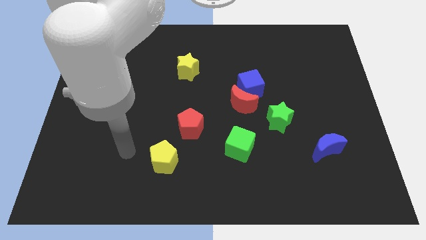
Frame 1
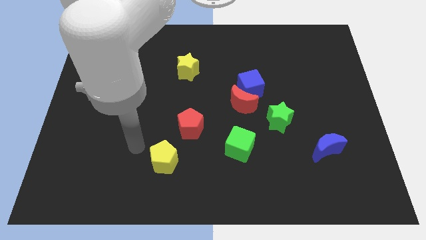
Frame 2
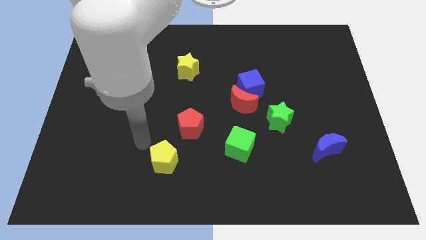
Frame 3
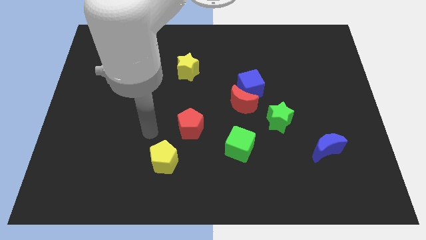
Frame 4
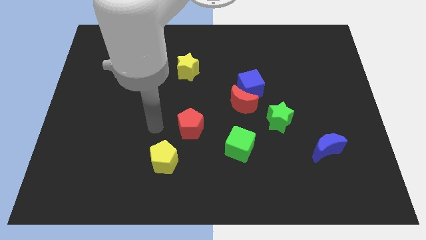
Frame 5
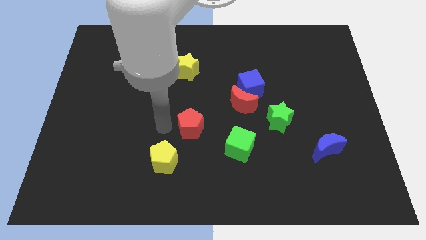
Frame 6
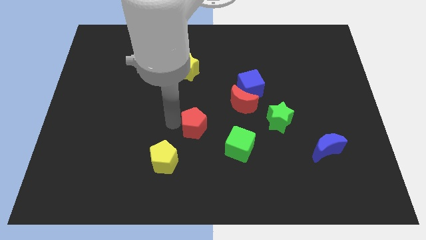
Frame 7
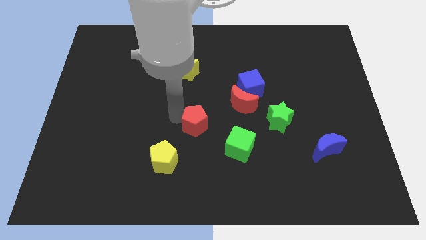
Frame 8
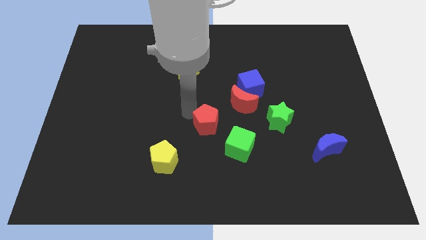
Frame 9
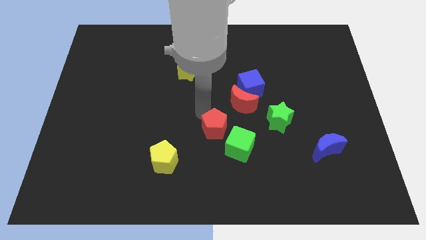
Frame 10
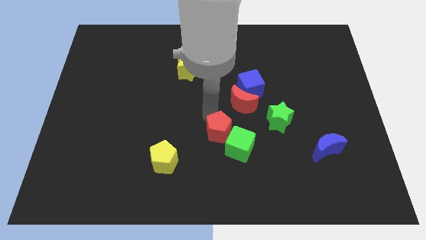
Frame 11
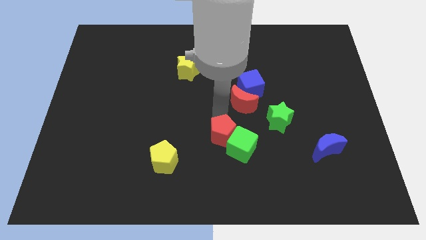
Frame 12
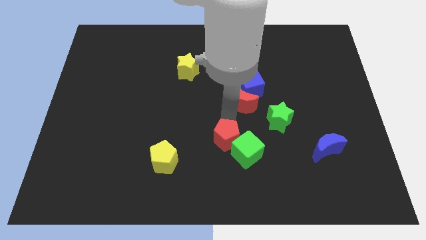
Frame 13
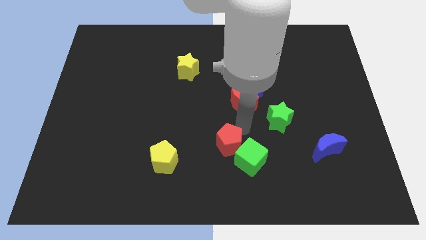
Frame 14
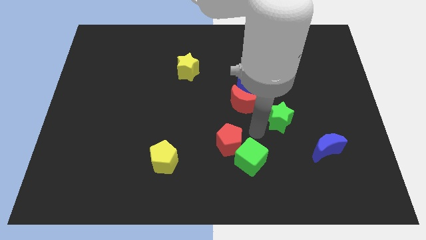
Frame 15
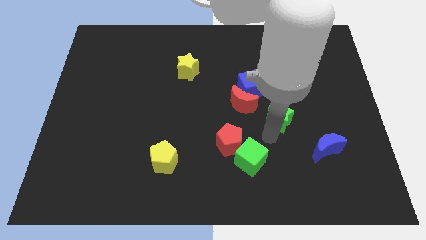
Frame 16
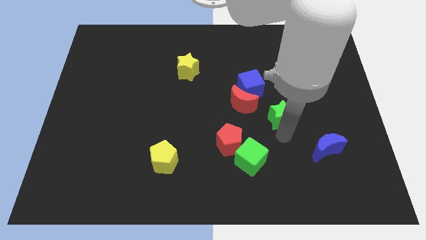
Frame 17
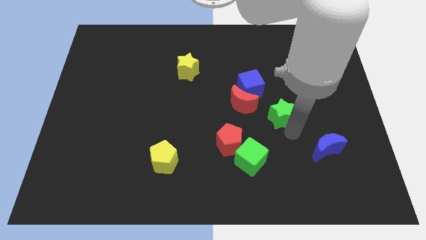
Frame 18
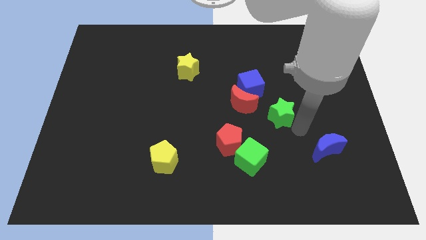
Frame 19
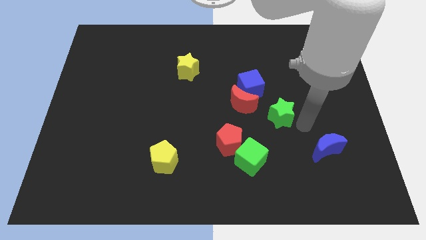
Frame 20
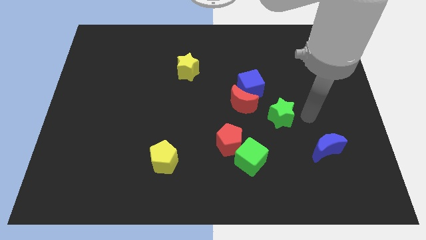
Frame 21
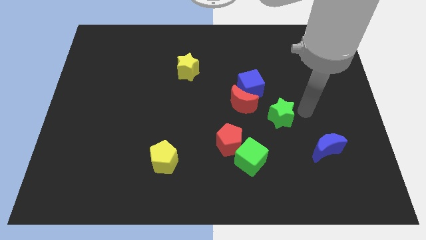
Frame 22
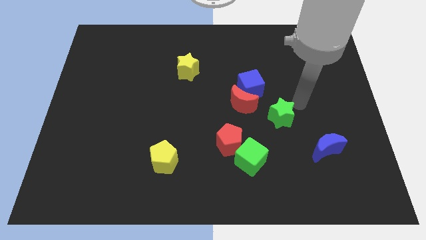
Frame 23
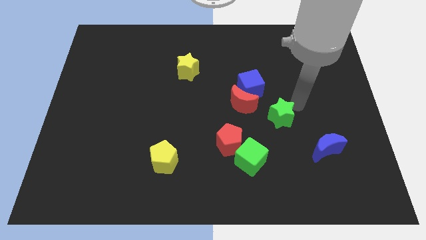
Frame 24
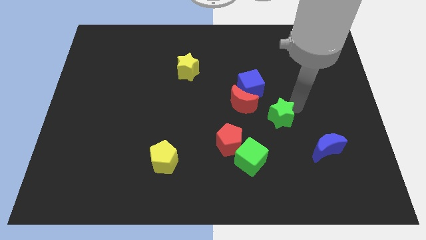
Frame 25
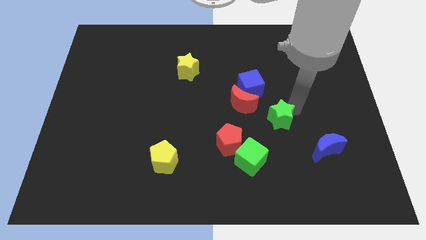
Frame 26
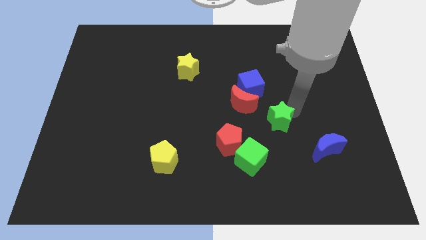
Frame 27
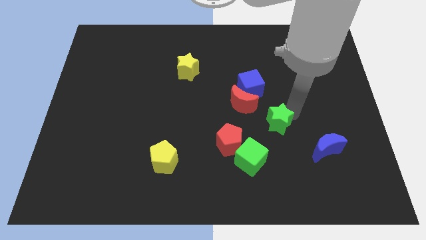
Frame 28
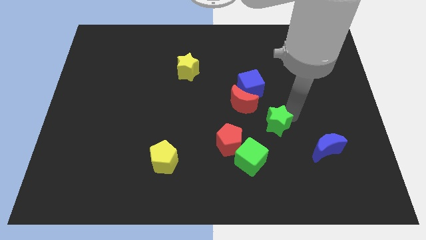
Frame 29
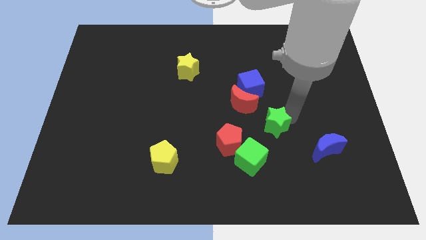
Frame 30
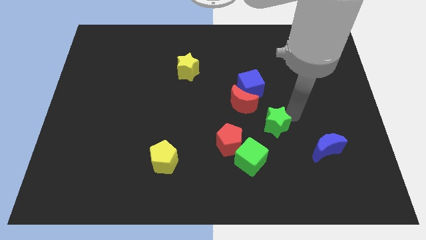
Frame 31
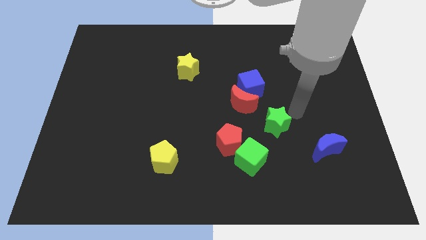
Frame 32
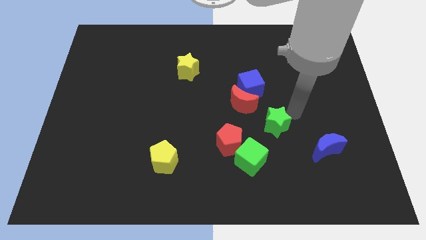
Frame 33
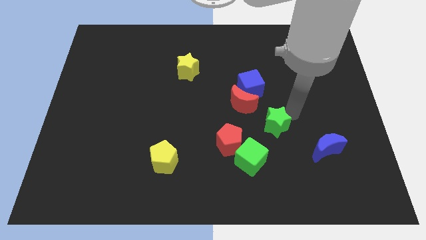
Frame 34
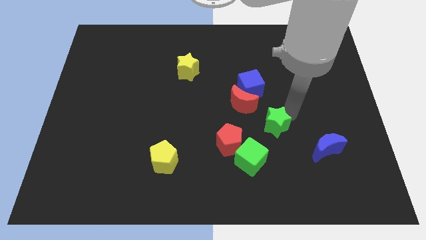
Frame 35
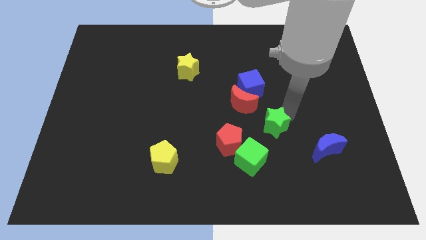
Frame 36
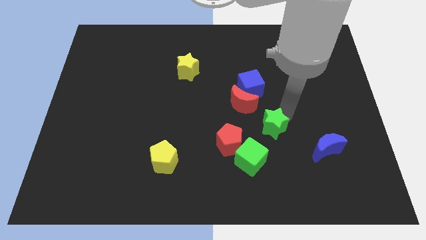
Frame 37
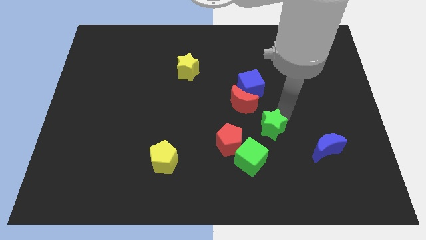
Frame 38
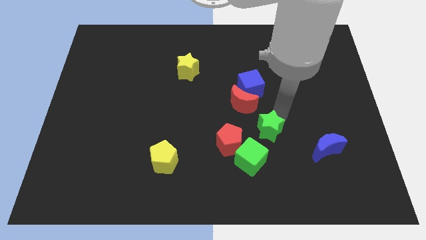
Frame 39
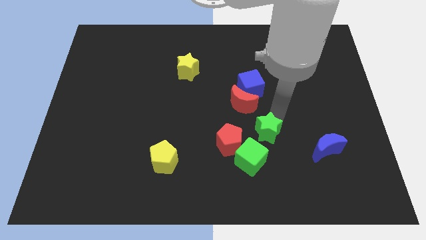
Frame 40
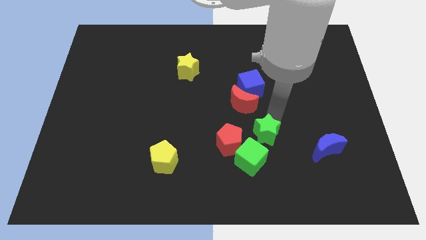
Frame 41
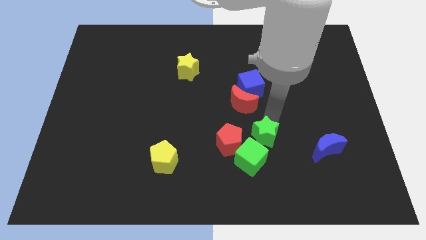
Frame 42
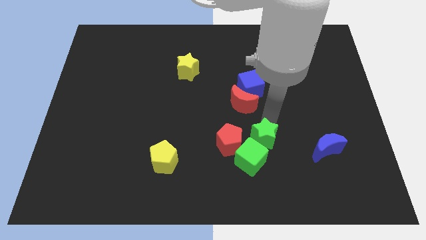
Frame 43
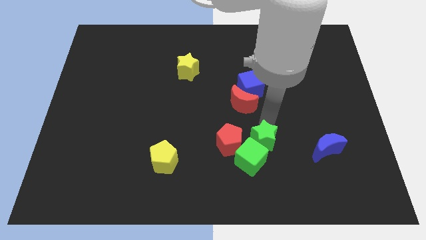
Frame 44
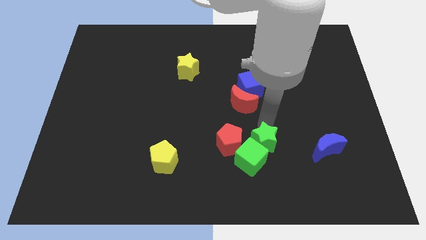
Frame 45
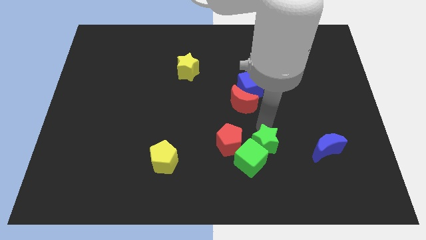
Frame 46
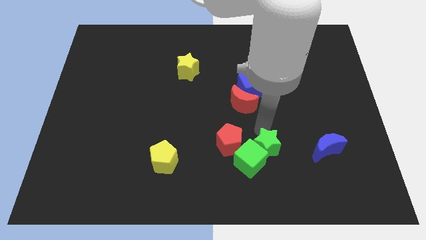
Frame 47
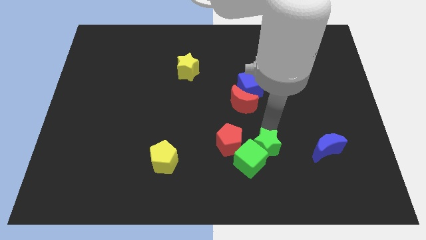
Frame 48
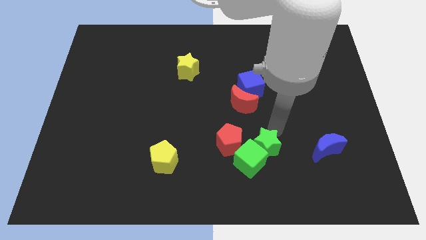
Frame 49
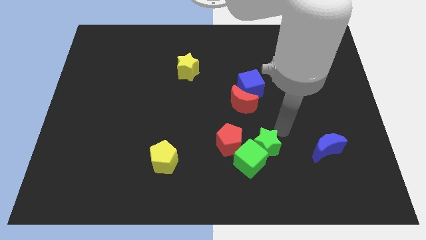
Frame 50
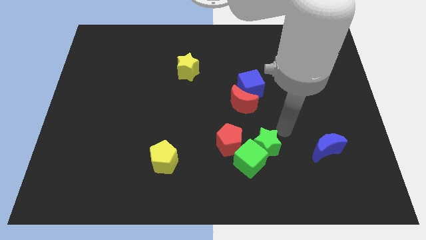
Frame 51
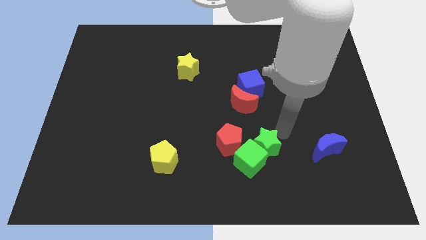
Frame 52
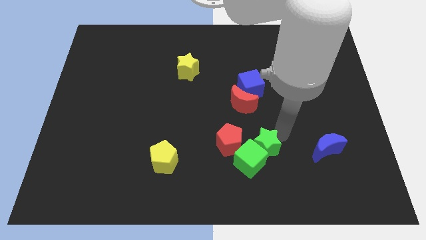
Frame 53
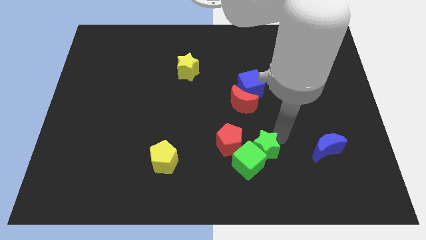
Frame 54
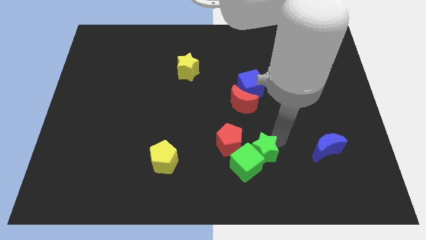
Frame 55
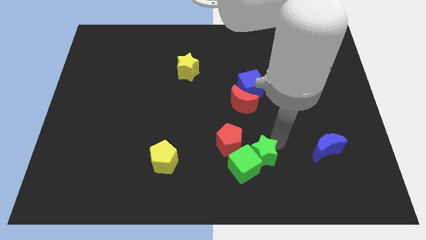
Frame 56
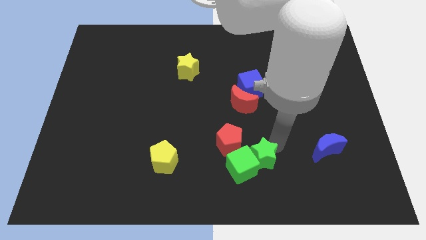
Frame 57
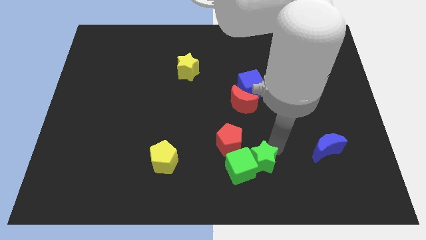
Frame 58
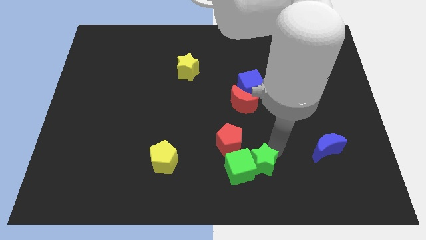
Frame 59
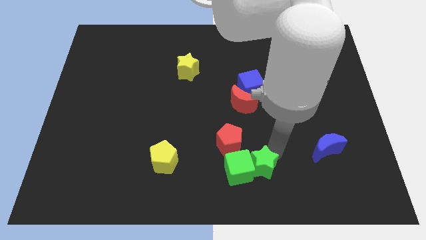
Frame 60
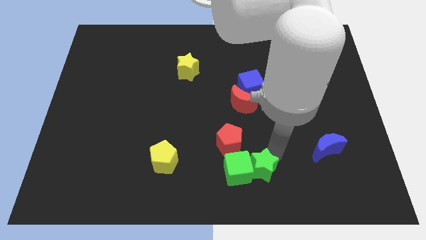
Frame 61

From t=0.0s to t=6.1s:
move the green star to the bottom

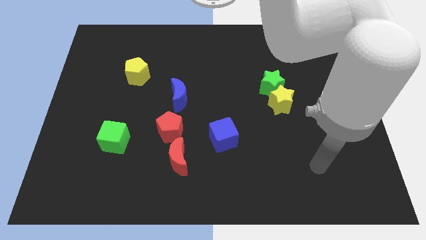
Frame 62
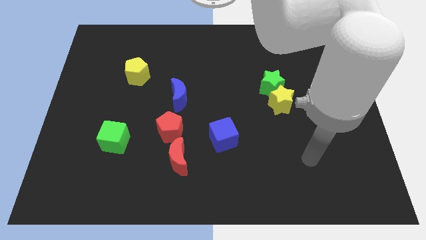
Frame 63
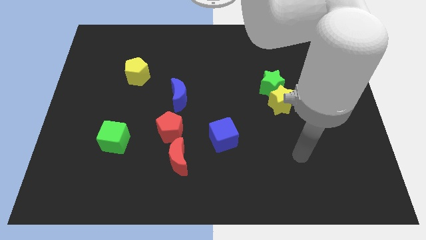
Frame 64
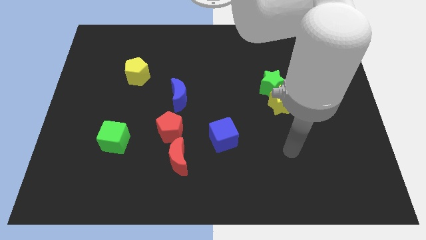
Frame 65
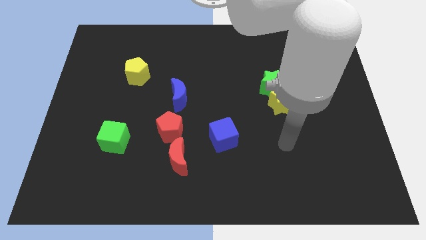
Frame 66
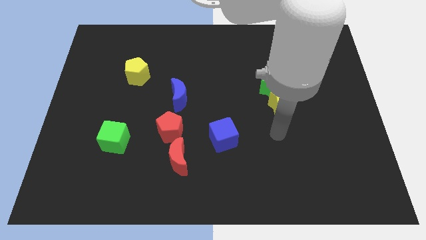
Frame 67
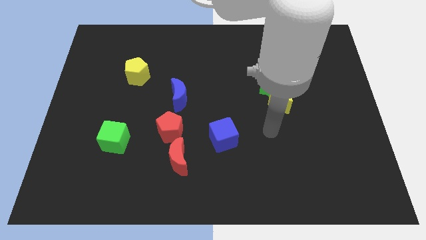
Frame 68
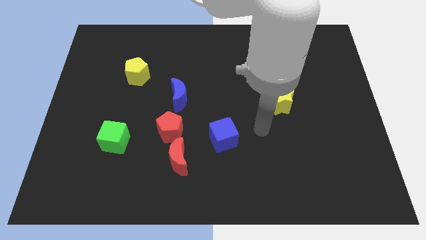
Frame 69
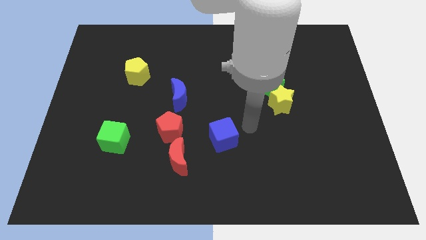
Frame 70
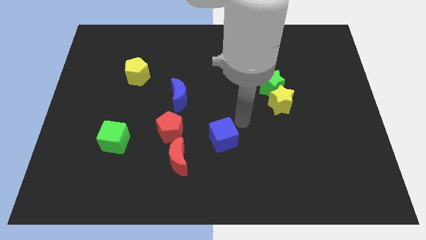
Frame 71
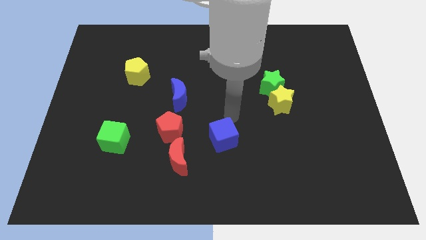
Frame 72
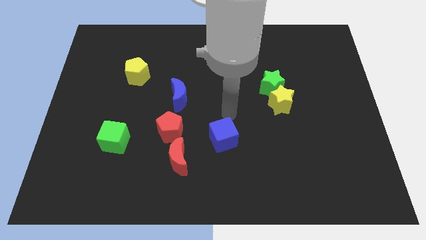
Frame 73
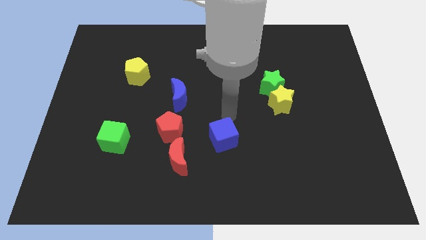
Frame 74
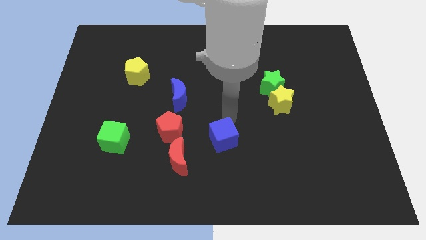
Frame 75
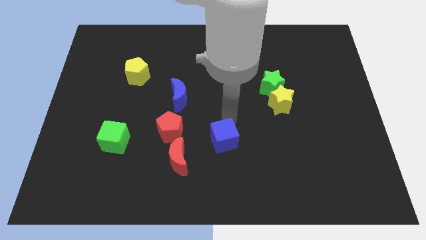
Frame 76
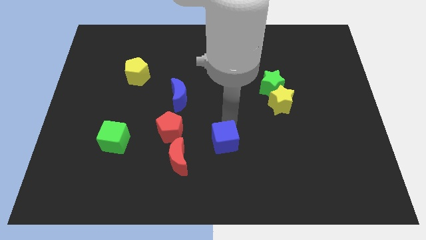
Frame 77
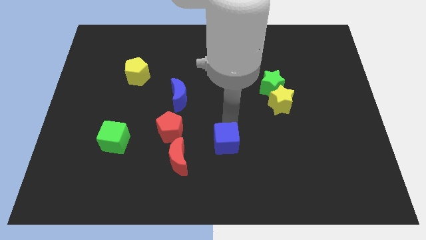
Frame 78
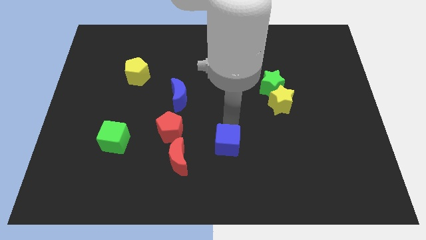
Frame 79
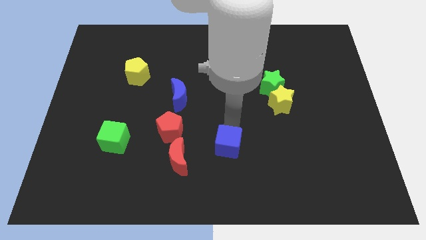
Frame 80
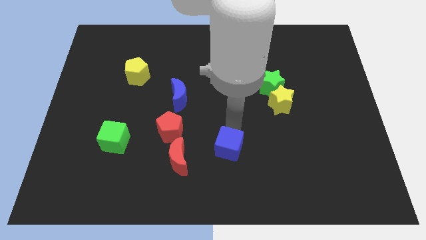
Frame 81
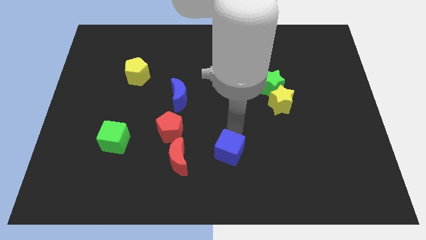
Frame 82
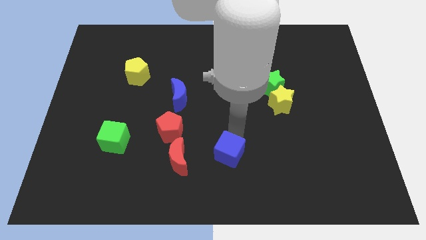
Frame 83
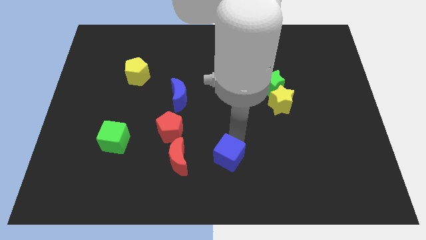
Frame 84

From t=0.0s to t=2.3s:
slide the blue cube to the bottom
